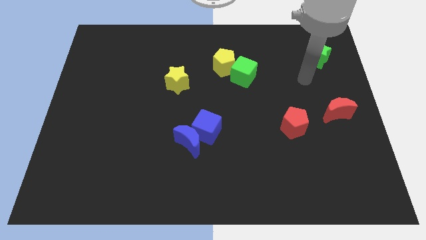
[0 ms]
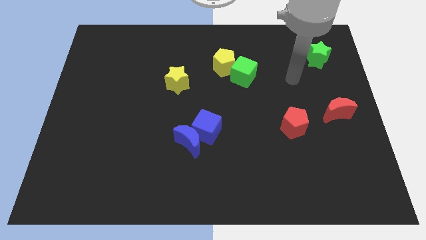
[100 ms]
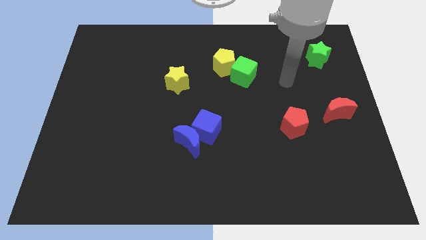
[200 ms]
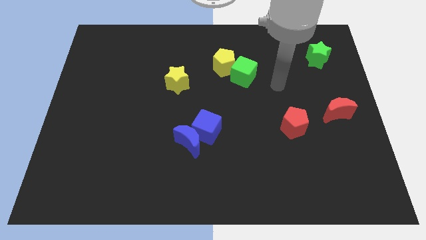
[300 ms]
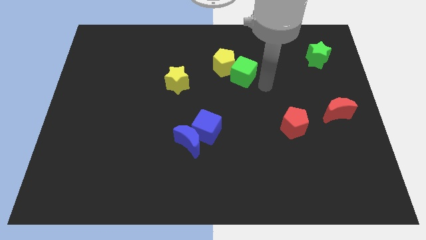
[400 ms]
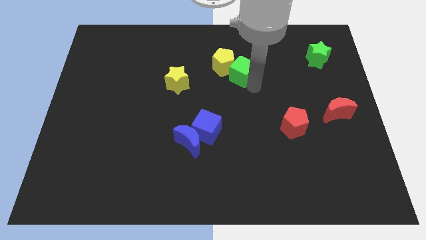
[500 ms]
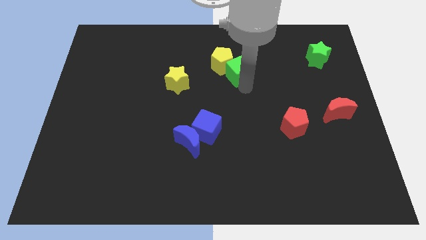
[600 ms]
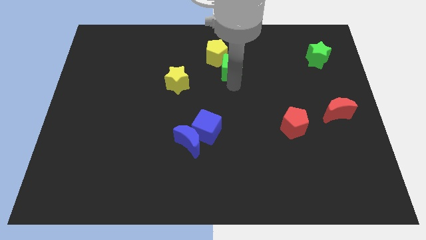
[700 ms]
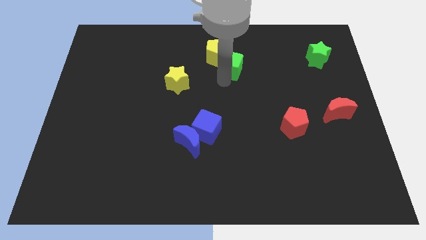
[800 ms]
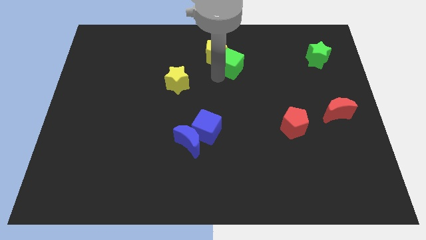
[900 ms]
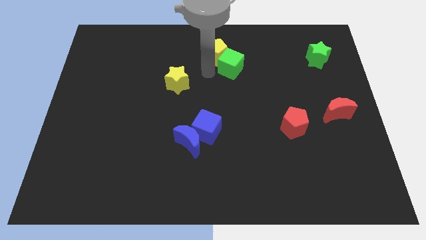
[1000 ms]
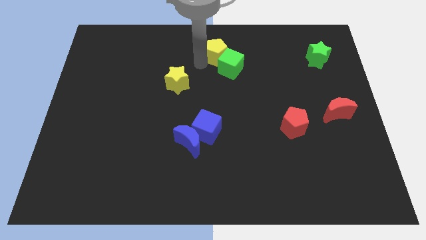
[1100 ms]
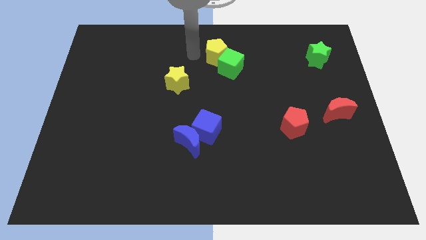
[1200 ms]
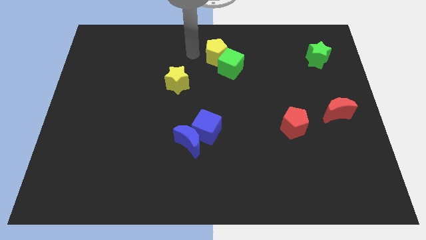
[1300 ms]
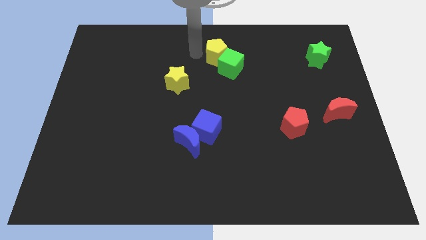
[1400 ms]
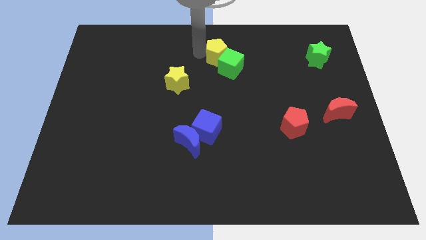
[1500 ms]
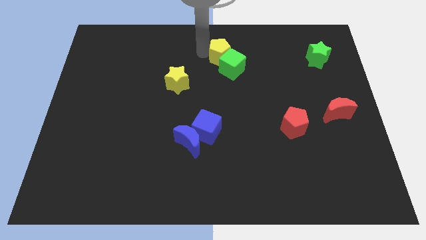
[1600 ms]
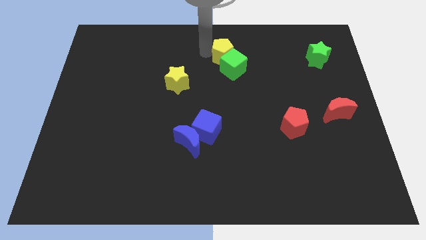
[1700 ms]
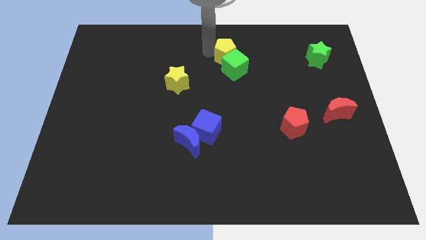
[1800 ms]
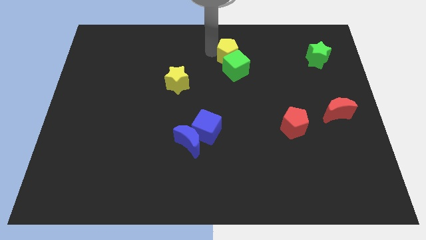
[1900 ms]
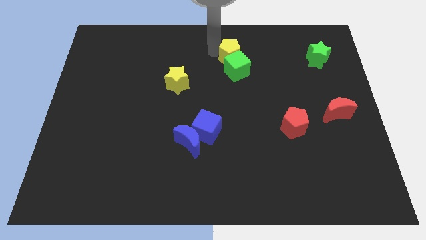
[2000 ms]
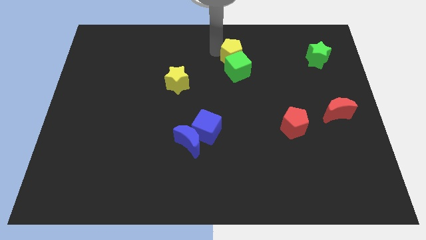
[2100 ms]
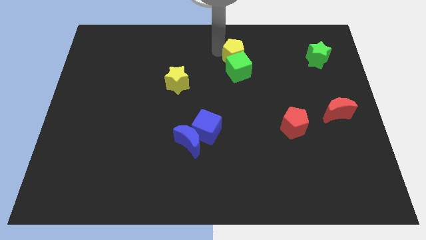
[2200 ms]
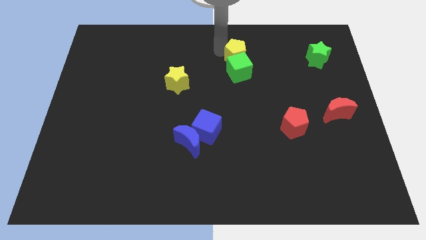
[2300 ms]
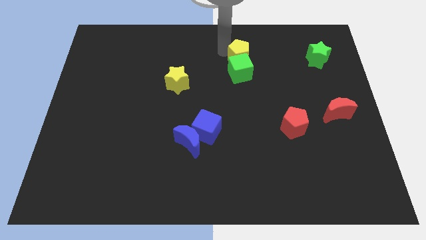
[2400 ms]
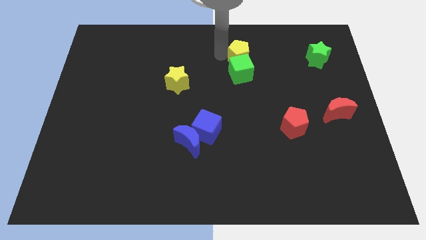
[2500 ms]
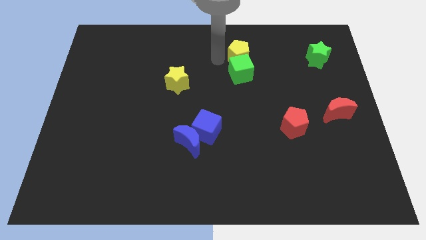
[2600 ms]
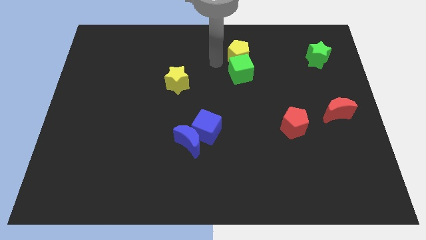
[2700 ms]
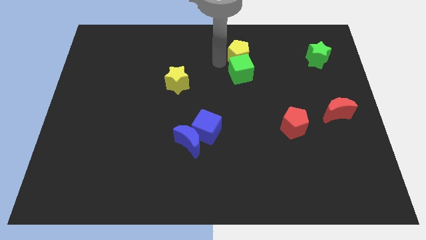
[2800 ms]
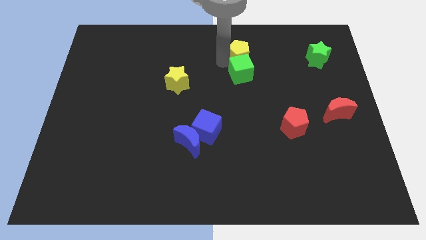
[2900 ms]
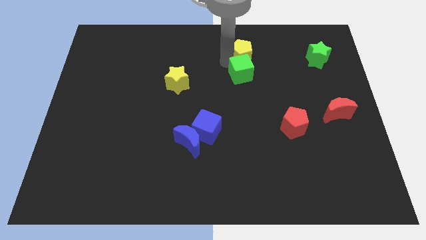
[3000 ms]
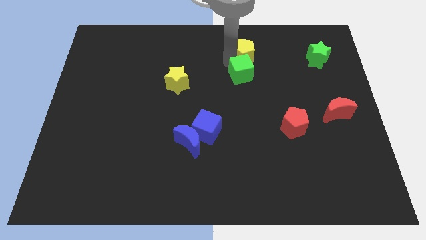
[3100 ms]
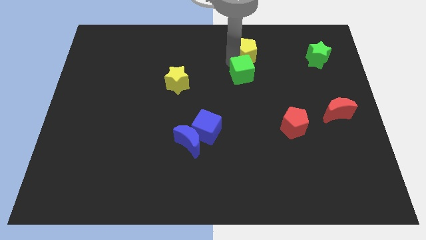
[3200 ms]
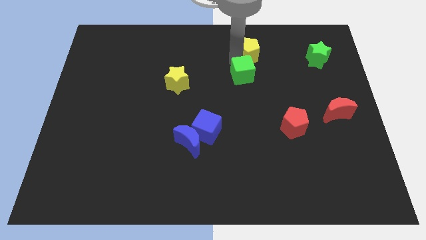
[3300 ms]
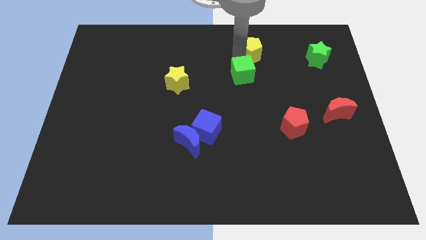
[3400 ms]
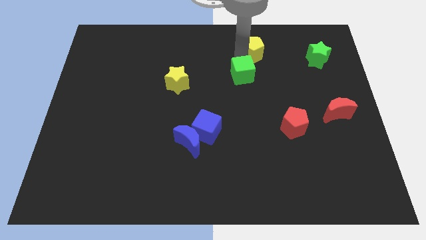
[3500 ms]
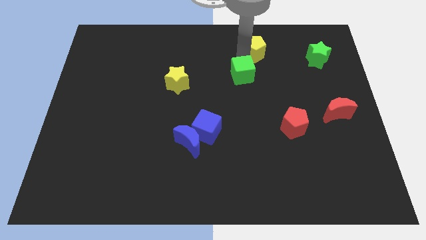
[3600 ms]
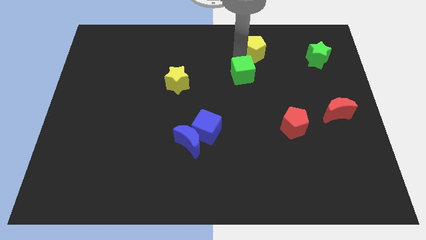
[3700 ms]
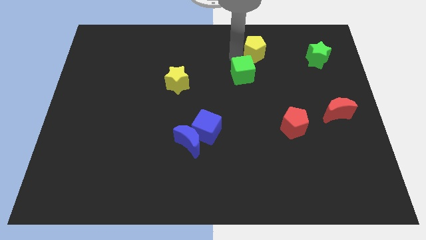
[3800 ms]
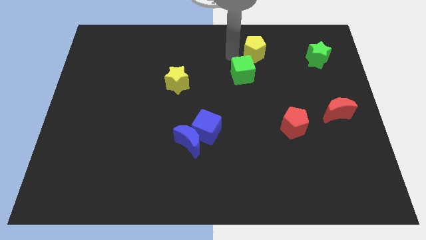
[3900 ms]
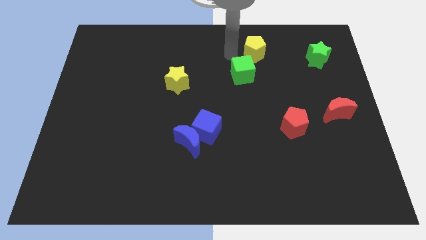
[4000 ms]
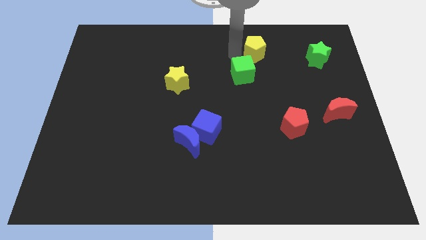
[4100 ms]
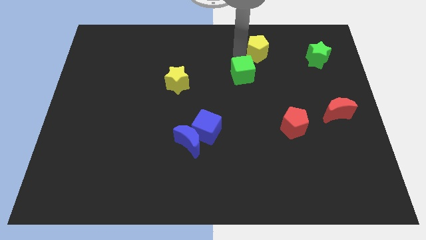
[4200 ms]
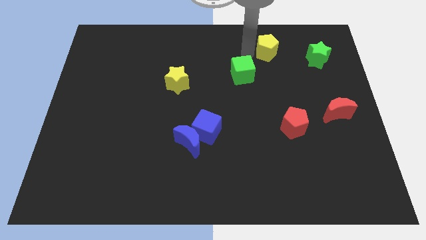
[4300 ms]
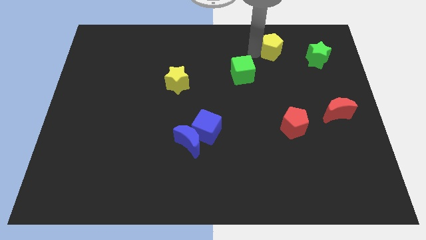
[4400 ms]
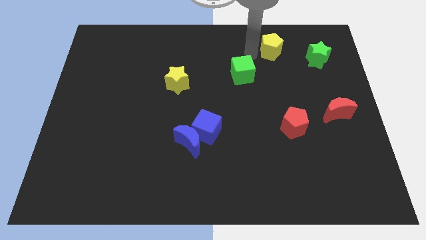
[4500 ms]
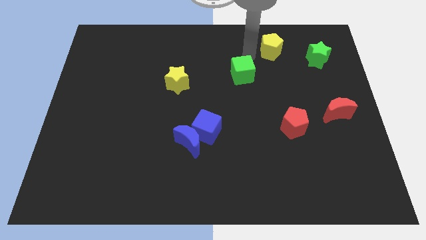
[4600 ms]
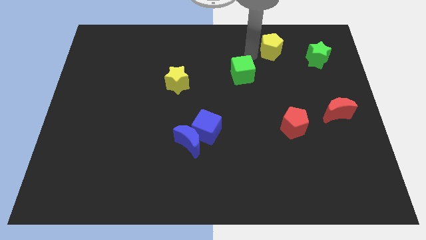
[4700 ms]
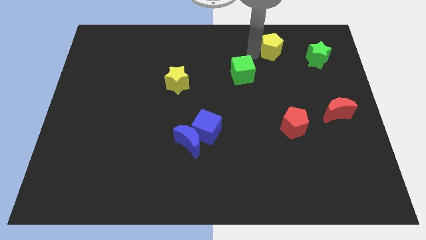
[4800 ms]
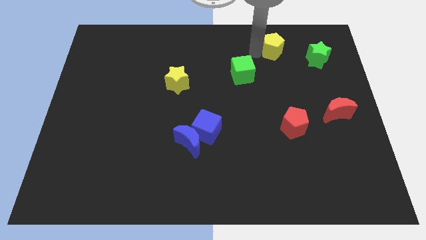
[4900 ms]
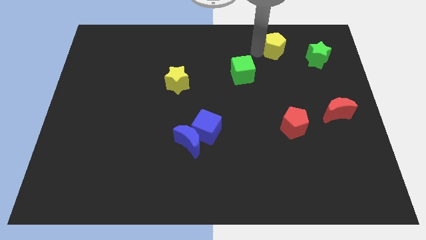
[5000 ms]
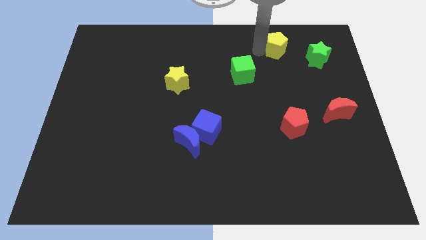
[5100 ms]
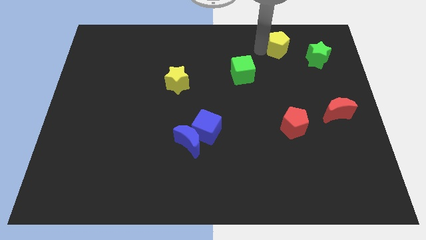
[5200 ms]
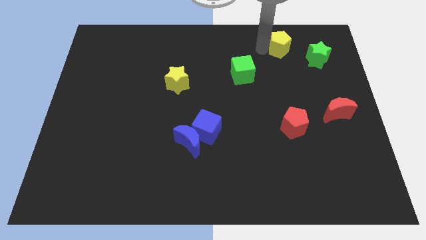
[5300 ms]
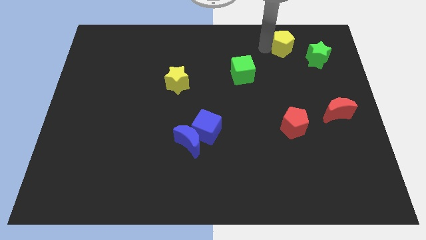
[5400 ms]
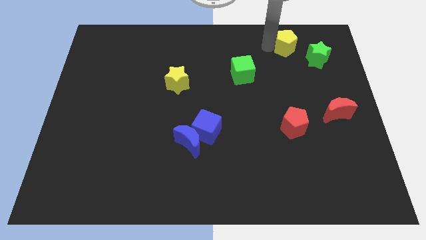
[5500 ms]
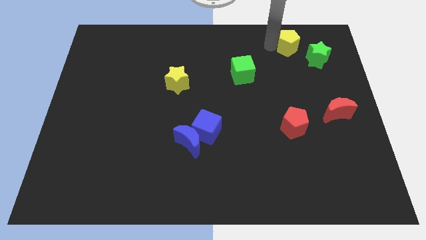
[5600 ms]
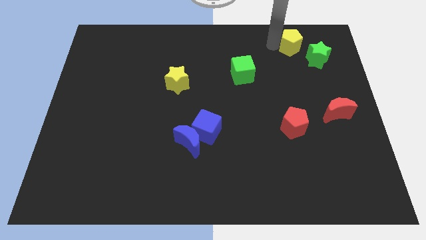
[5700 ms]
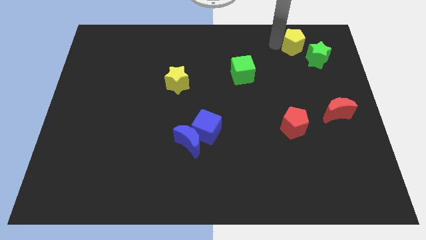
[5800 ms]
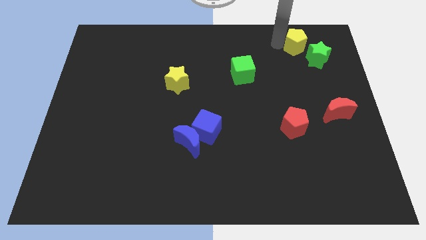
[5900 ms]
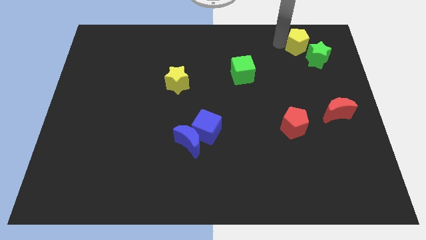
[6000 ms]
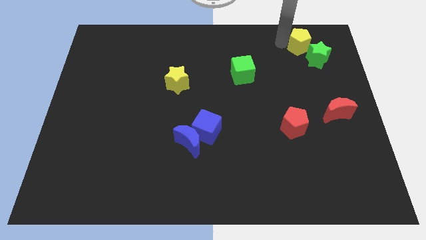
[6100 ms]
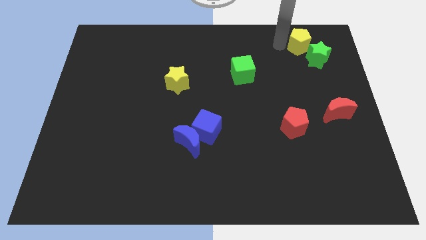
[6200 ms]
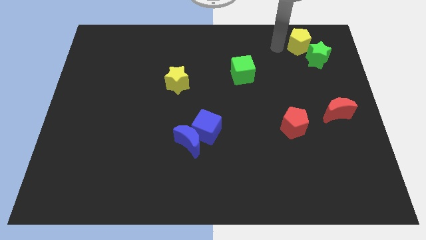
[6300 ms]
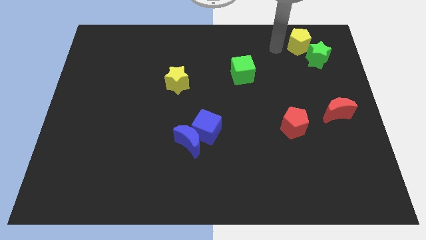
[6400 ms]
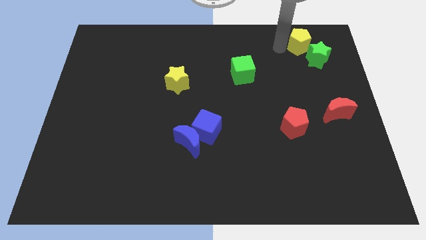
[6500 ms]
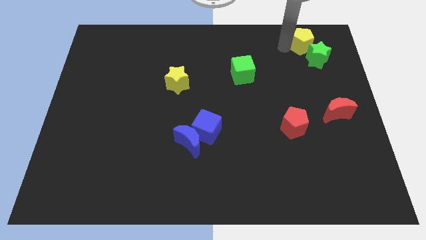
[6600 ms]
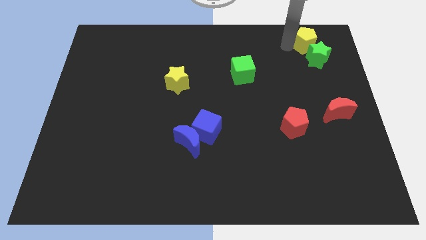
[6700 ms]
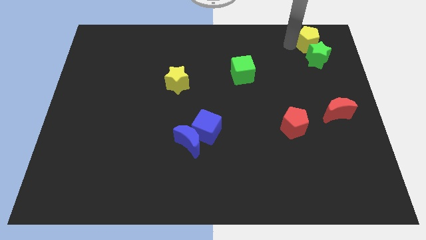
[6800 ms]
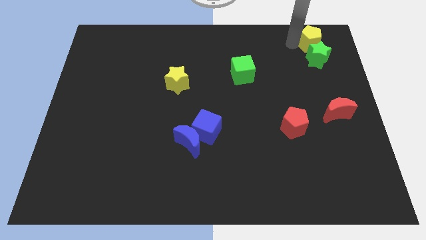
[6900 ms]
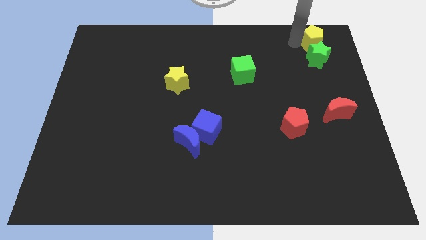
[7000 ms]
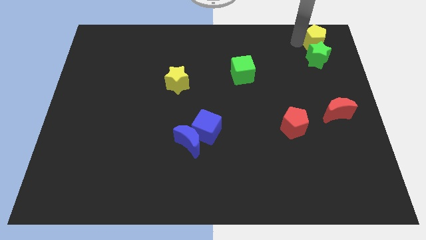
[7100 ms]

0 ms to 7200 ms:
move the yellow pentagon to the upper right corner
